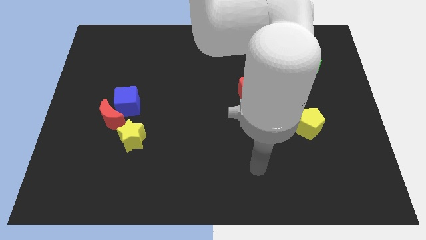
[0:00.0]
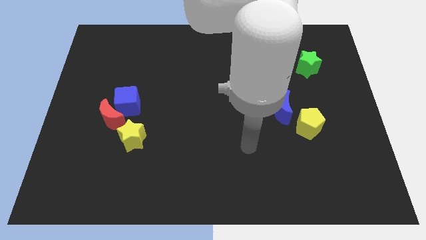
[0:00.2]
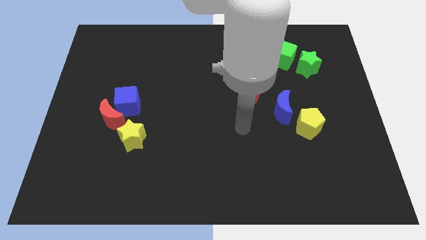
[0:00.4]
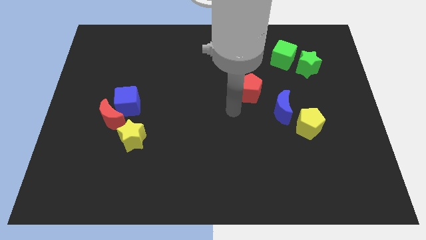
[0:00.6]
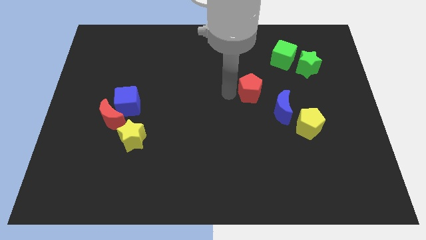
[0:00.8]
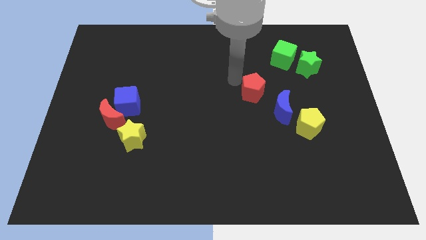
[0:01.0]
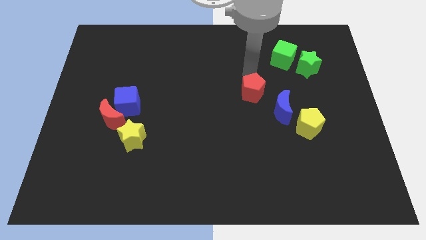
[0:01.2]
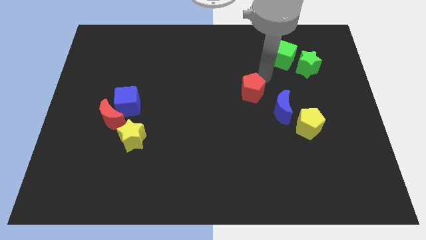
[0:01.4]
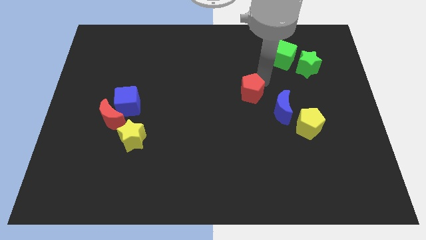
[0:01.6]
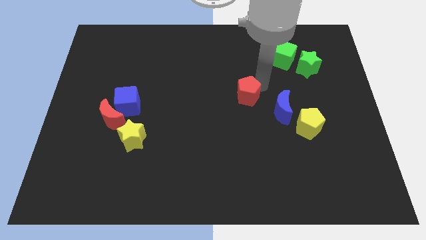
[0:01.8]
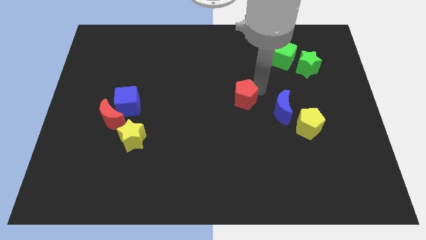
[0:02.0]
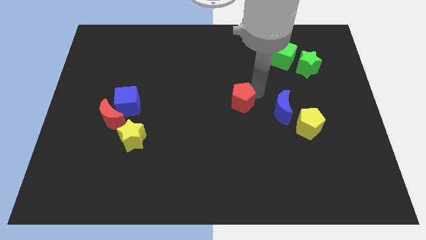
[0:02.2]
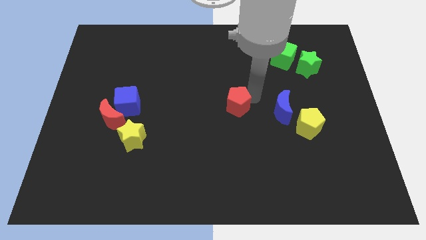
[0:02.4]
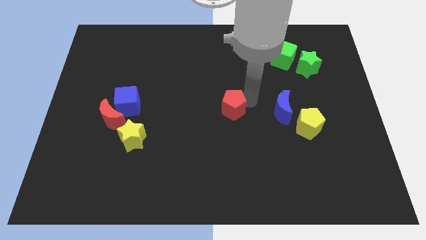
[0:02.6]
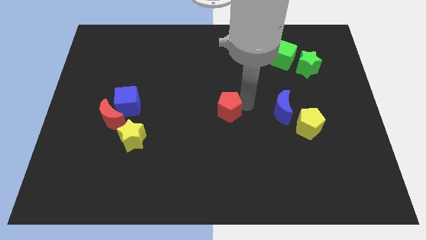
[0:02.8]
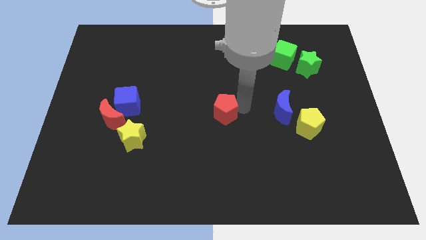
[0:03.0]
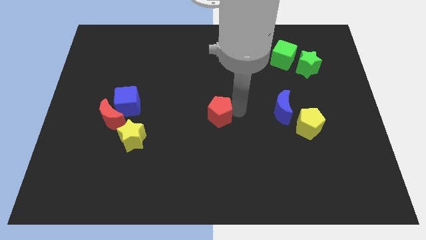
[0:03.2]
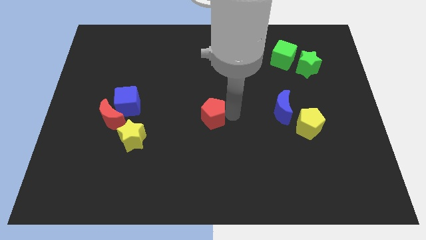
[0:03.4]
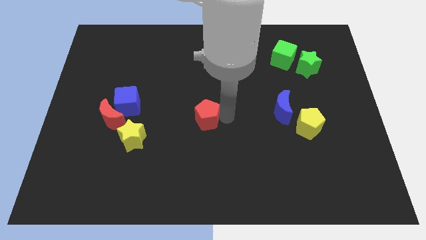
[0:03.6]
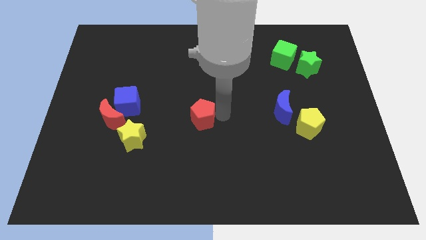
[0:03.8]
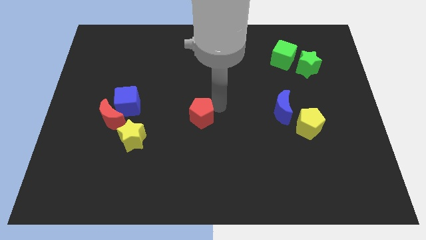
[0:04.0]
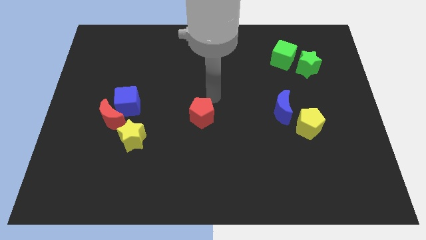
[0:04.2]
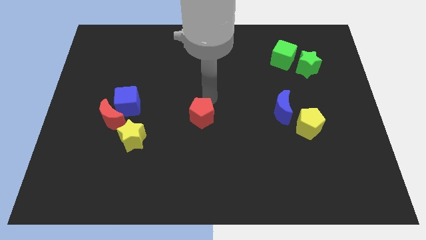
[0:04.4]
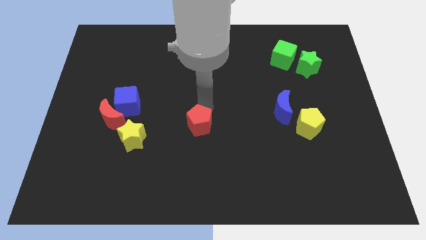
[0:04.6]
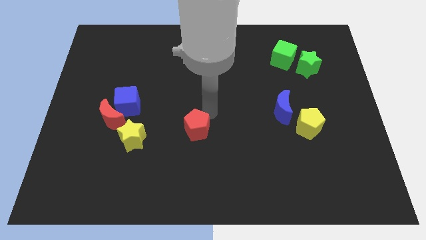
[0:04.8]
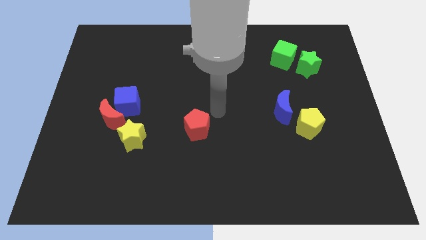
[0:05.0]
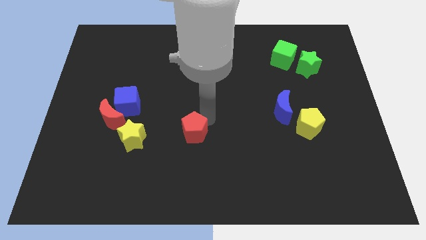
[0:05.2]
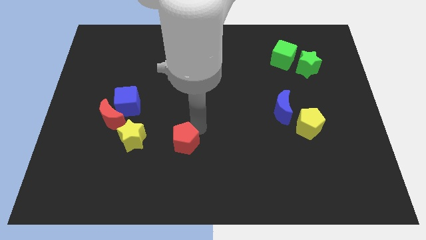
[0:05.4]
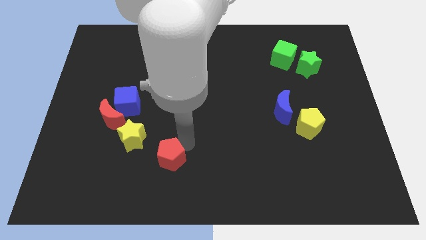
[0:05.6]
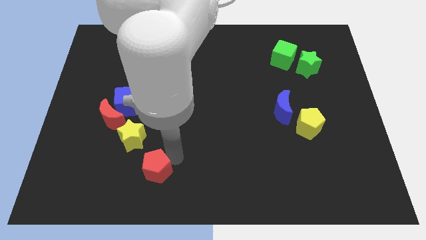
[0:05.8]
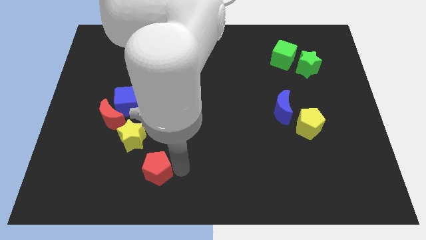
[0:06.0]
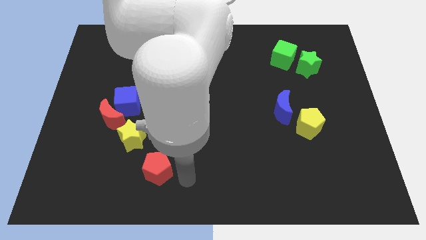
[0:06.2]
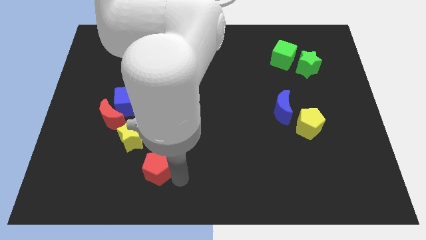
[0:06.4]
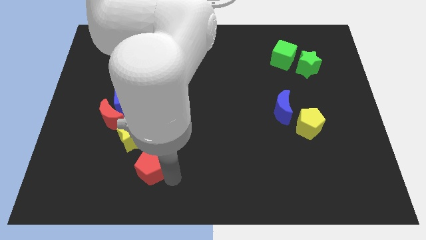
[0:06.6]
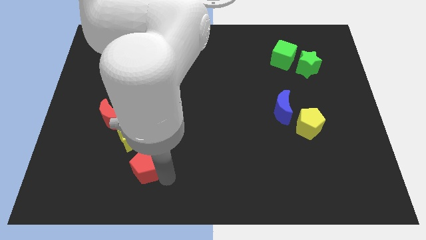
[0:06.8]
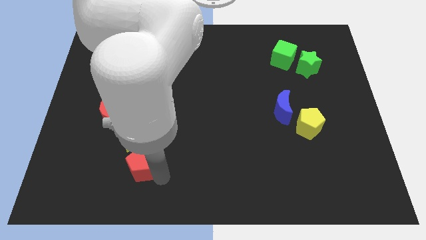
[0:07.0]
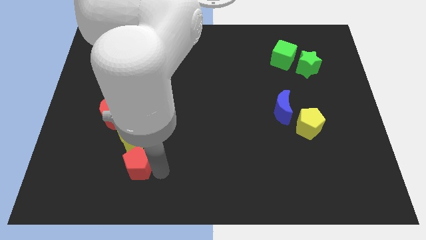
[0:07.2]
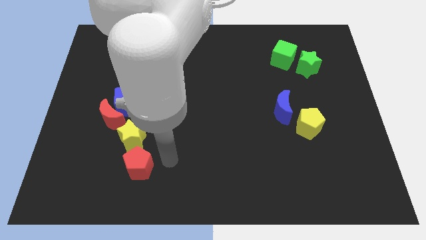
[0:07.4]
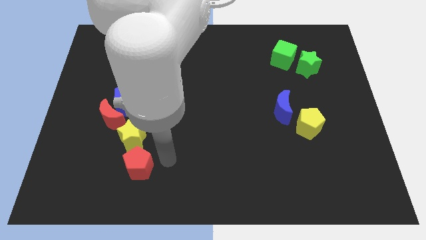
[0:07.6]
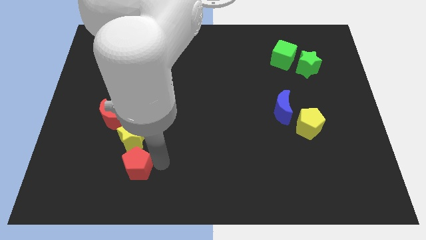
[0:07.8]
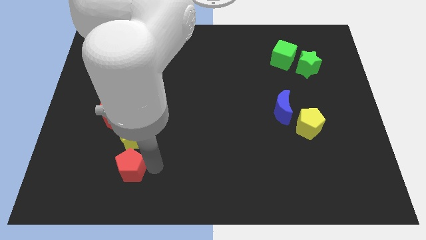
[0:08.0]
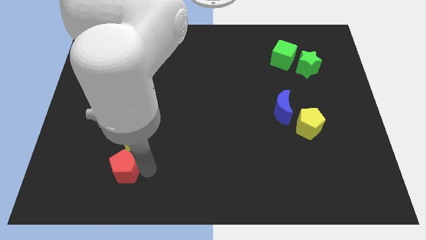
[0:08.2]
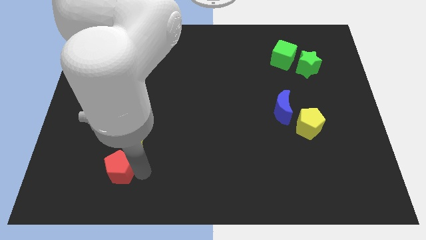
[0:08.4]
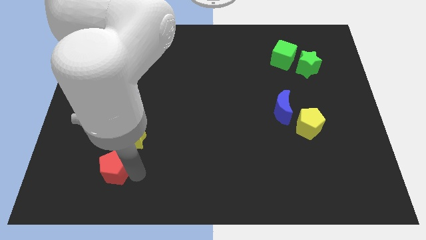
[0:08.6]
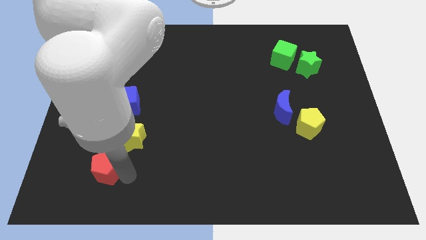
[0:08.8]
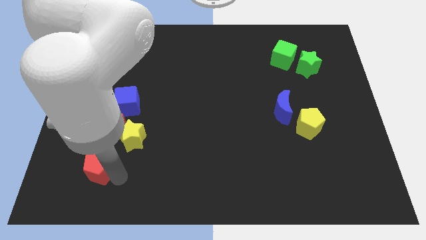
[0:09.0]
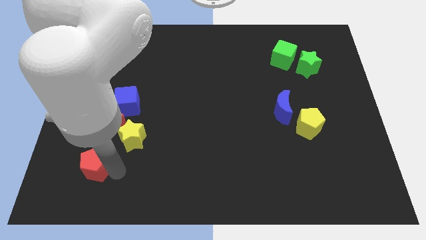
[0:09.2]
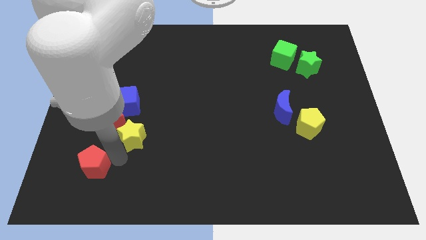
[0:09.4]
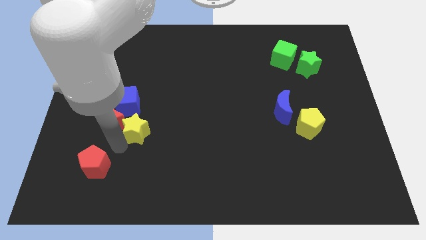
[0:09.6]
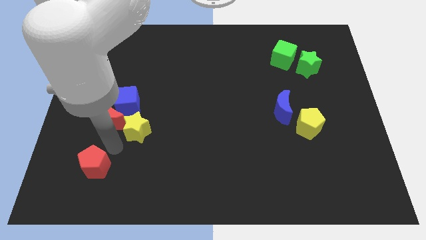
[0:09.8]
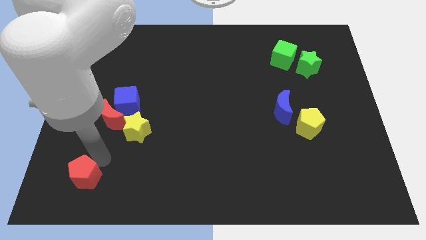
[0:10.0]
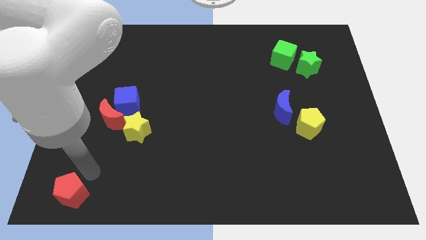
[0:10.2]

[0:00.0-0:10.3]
slide the red pentagon to the bottom left of the board

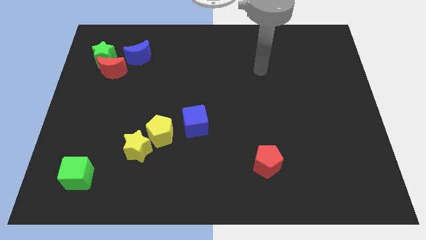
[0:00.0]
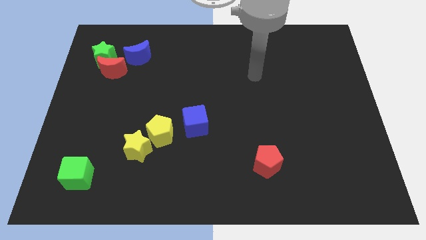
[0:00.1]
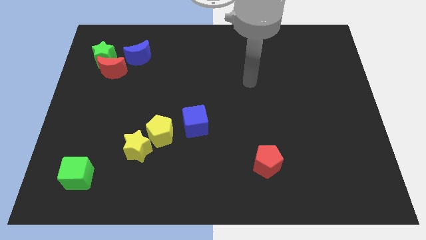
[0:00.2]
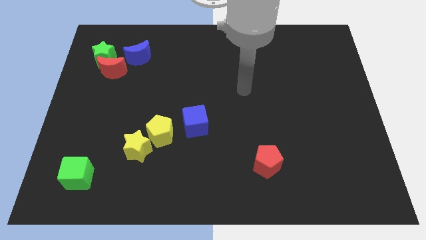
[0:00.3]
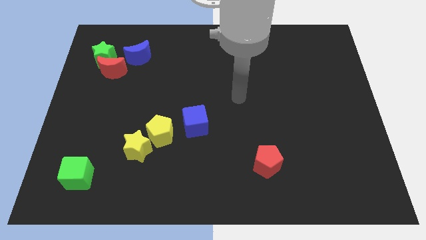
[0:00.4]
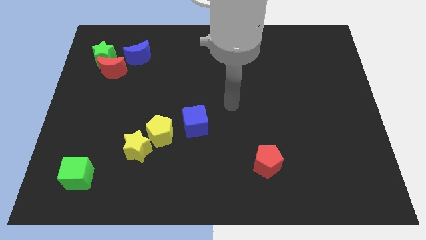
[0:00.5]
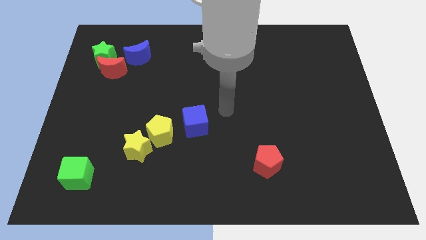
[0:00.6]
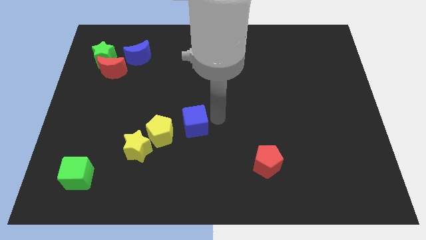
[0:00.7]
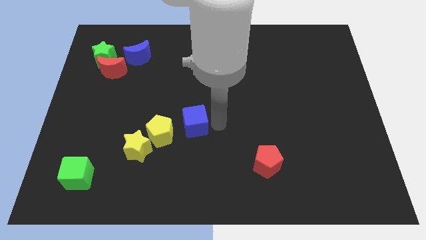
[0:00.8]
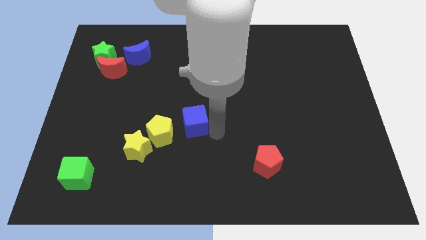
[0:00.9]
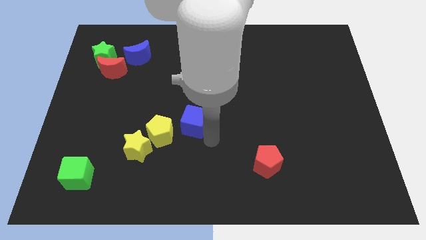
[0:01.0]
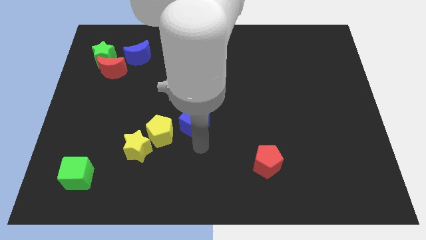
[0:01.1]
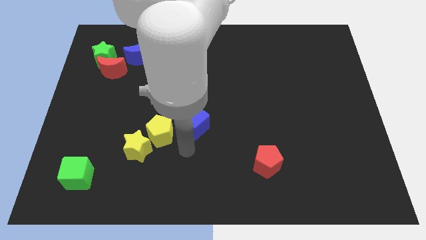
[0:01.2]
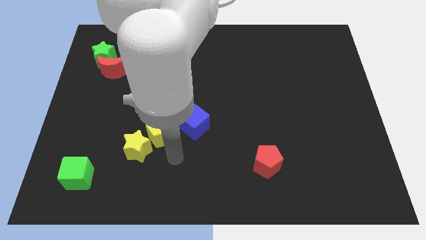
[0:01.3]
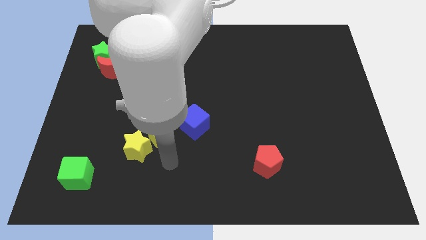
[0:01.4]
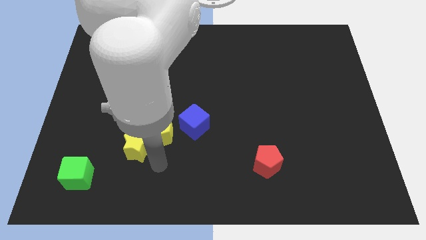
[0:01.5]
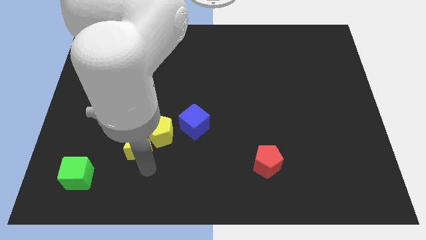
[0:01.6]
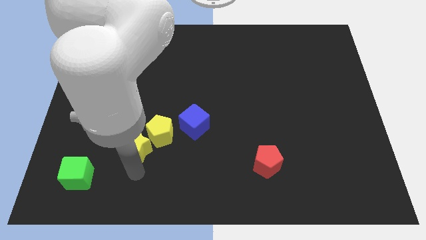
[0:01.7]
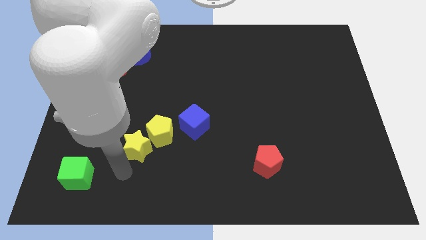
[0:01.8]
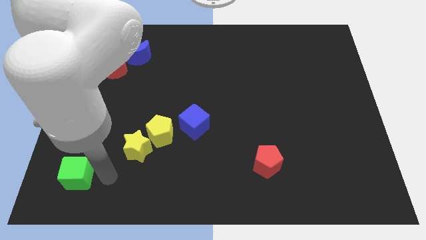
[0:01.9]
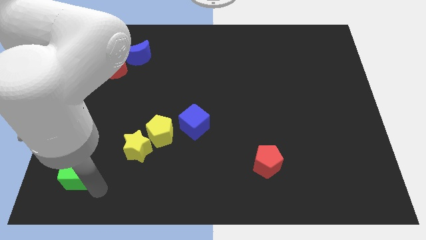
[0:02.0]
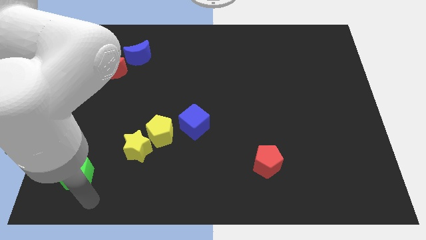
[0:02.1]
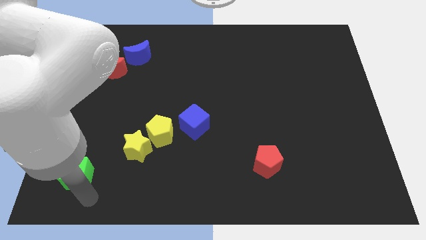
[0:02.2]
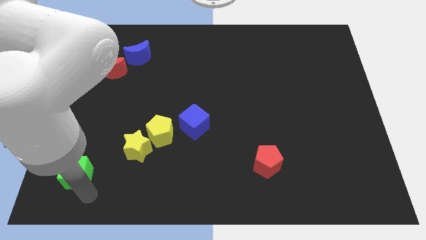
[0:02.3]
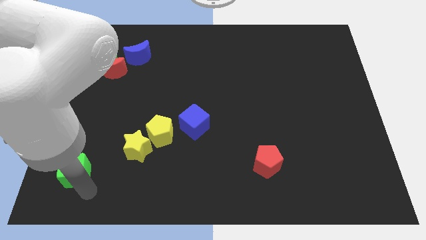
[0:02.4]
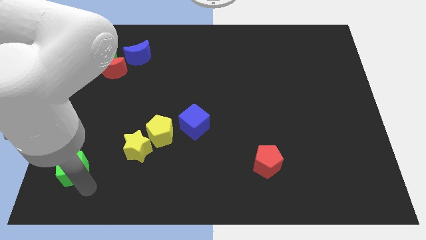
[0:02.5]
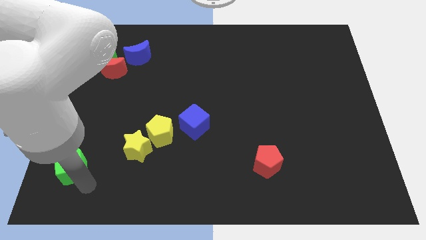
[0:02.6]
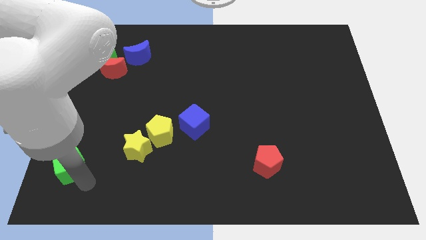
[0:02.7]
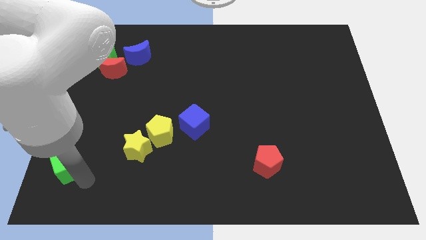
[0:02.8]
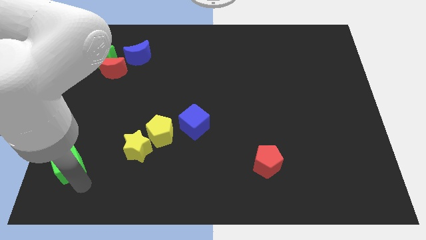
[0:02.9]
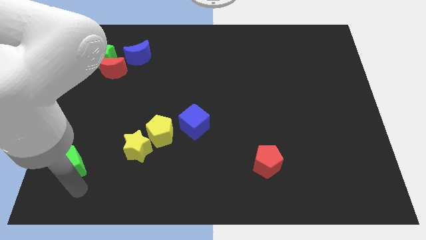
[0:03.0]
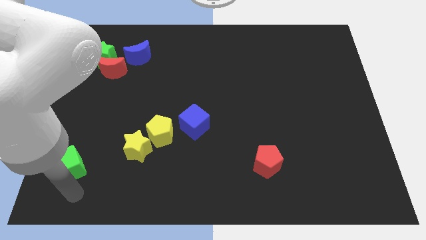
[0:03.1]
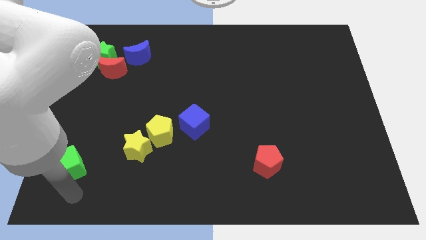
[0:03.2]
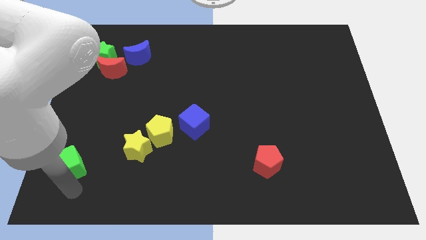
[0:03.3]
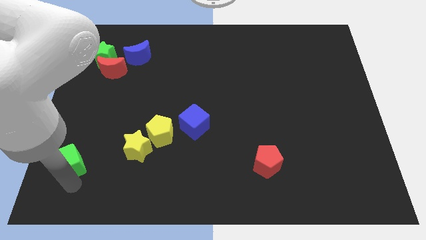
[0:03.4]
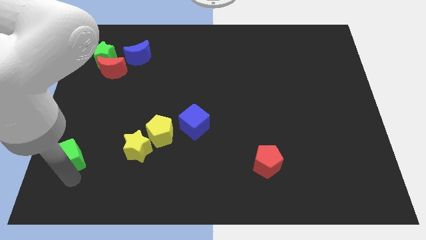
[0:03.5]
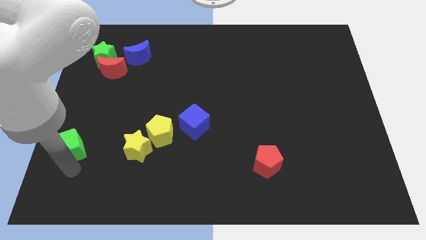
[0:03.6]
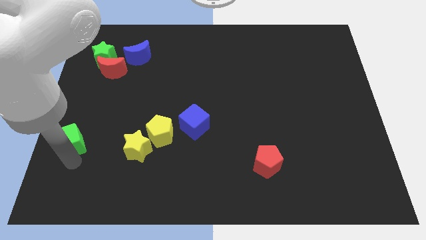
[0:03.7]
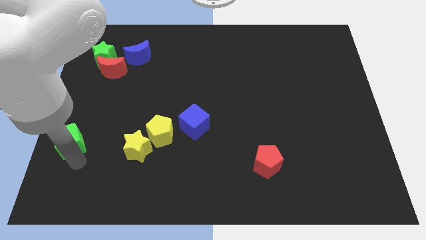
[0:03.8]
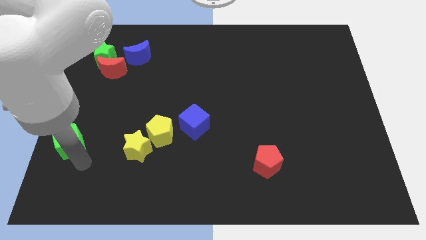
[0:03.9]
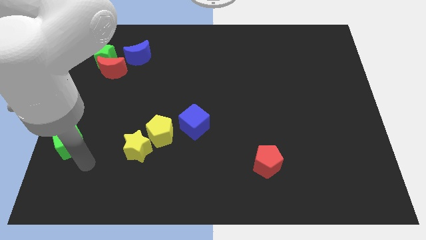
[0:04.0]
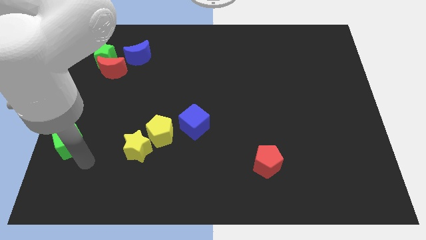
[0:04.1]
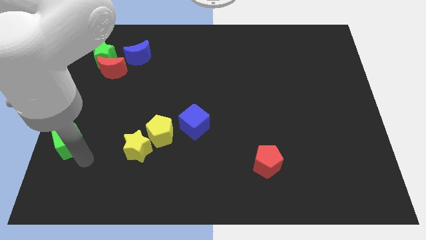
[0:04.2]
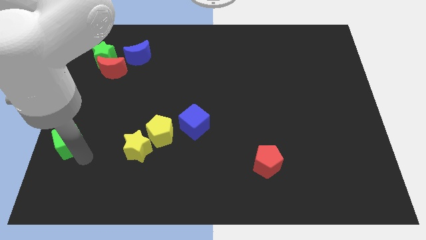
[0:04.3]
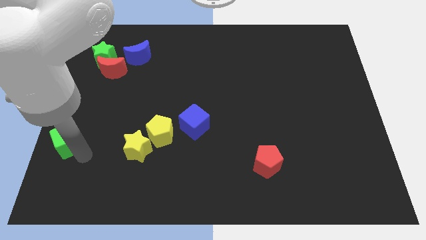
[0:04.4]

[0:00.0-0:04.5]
put the green cube to the center left
